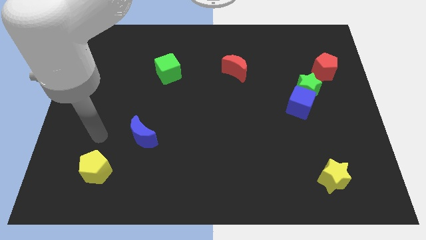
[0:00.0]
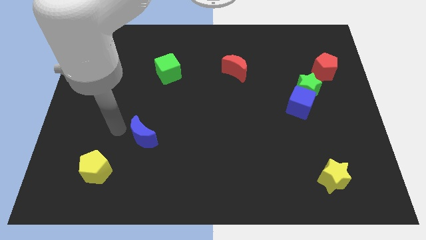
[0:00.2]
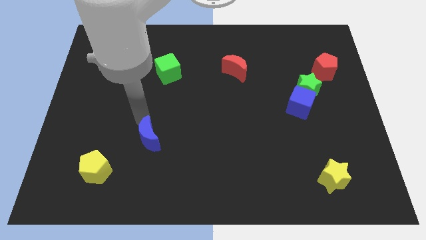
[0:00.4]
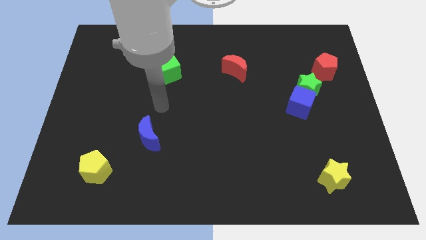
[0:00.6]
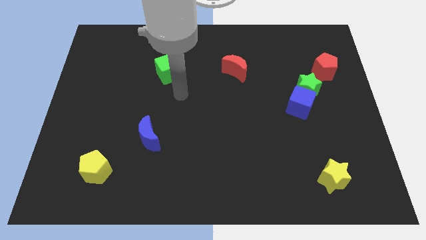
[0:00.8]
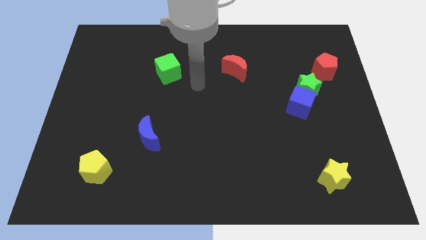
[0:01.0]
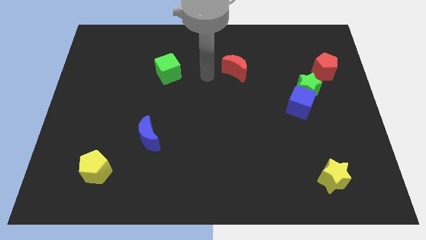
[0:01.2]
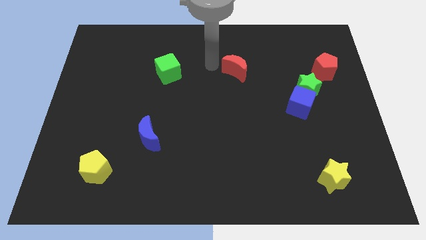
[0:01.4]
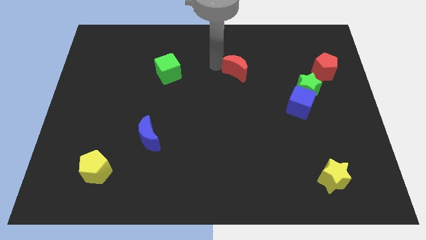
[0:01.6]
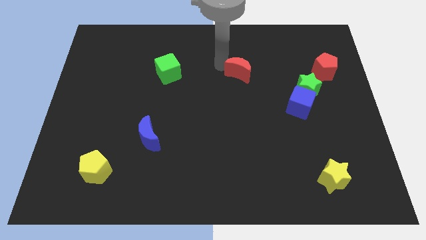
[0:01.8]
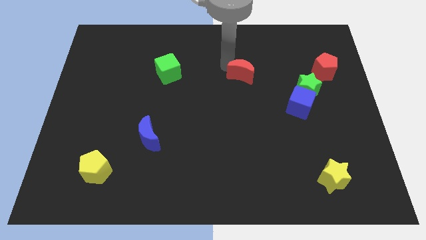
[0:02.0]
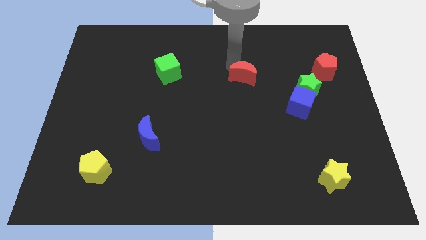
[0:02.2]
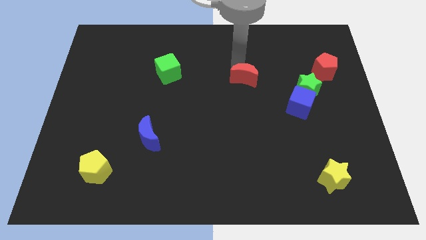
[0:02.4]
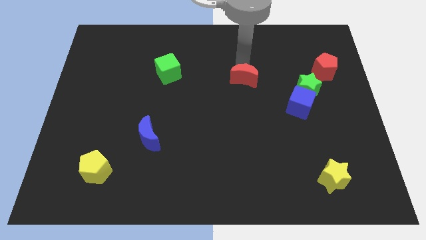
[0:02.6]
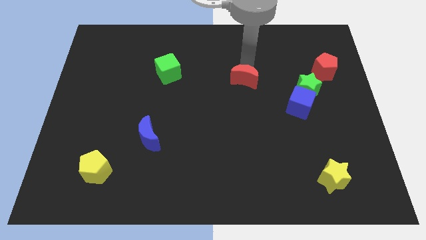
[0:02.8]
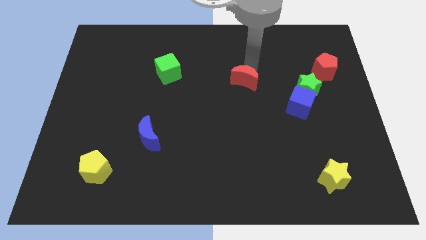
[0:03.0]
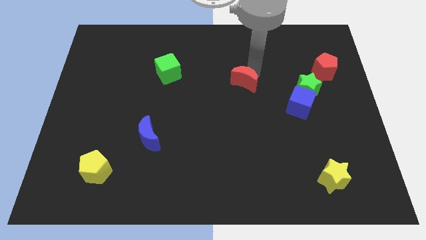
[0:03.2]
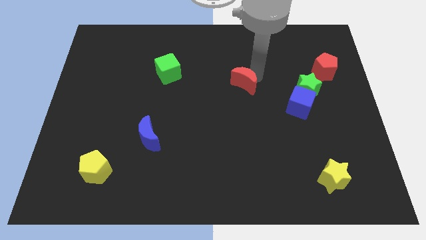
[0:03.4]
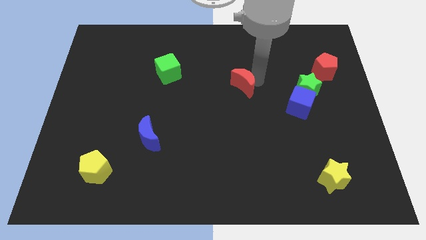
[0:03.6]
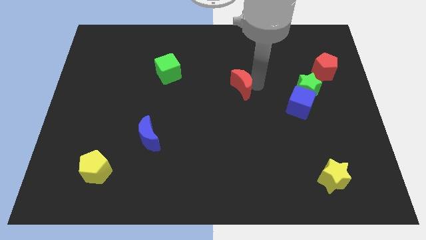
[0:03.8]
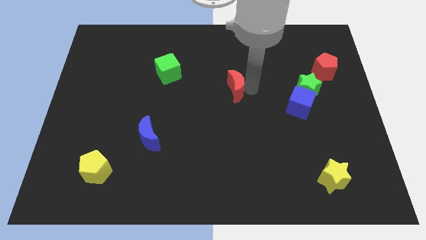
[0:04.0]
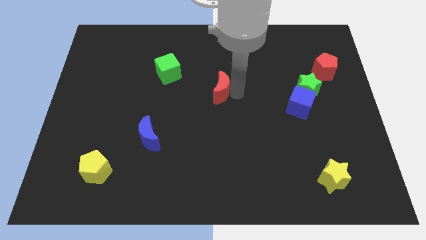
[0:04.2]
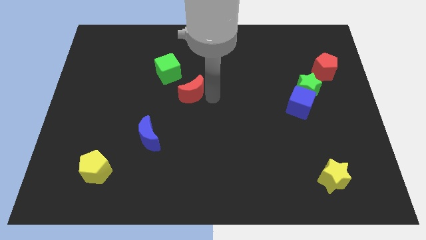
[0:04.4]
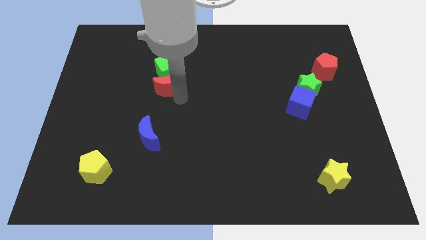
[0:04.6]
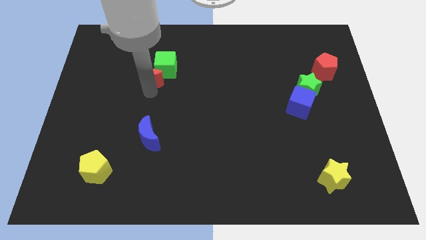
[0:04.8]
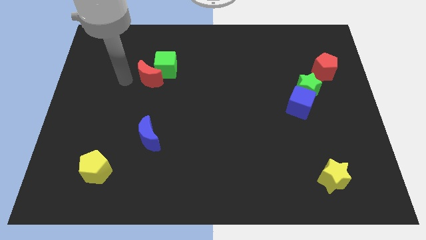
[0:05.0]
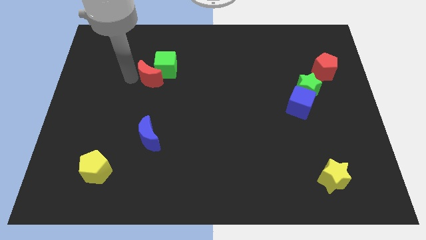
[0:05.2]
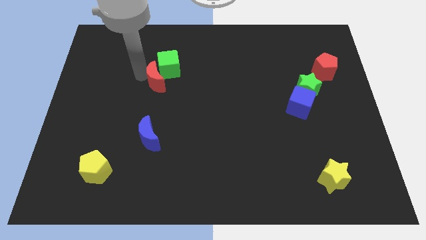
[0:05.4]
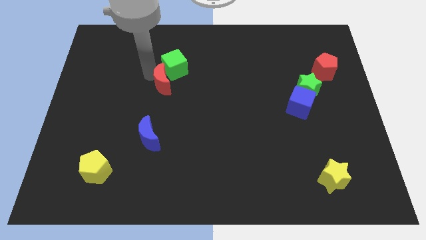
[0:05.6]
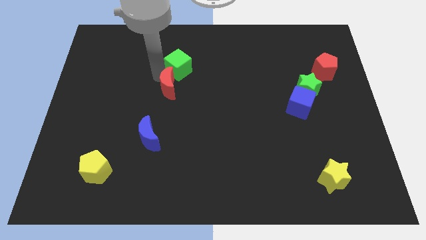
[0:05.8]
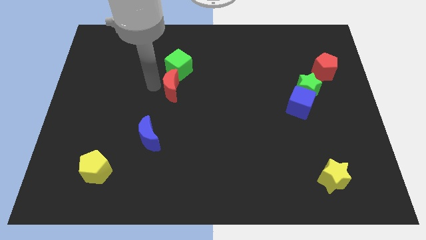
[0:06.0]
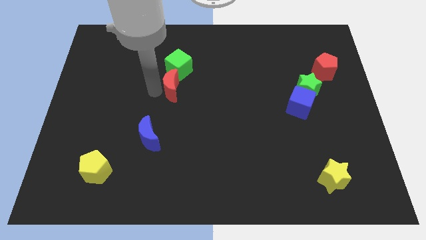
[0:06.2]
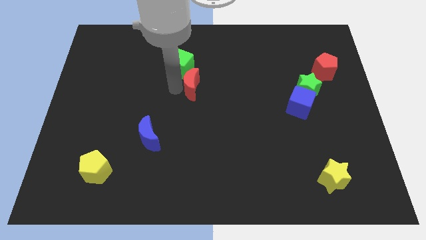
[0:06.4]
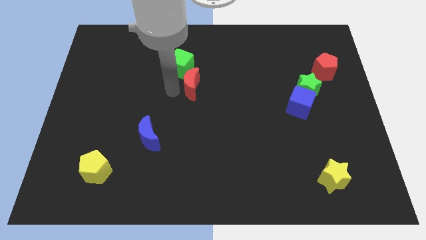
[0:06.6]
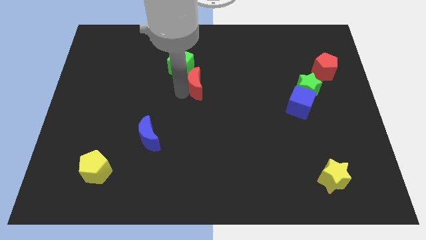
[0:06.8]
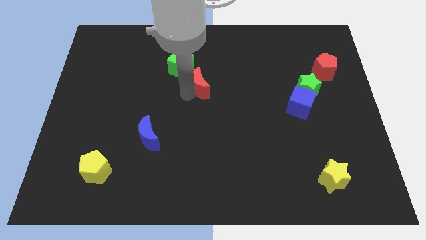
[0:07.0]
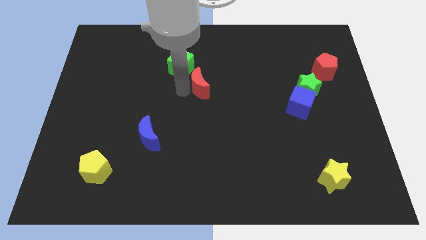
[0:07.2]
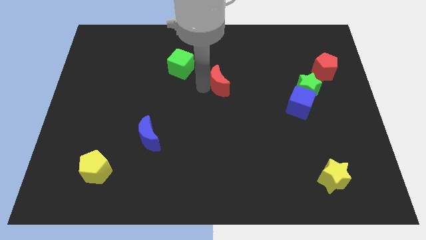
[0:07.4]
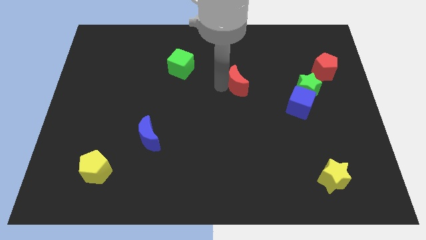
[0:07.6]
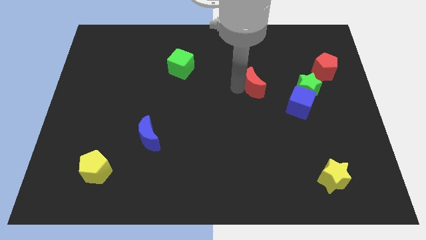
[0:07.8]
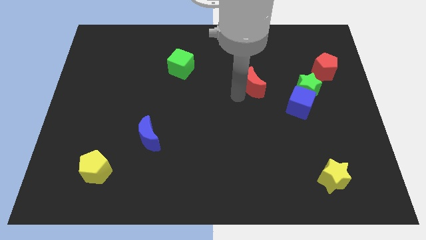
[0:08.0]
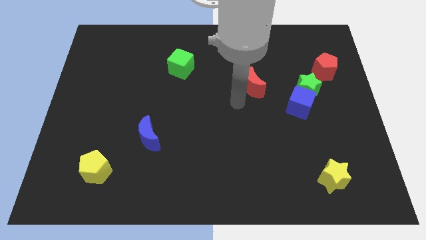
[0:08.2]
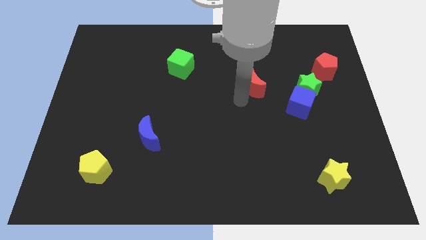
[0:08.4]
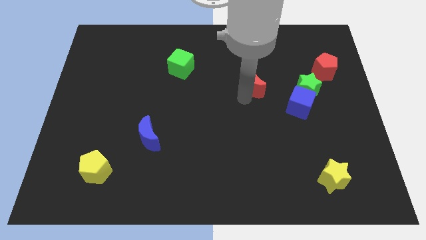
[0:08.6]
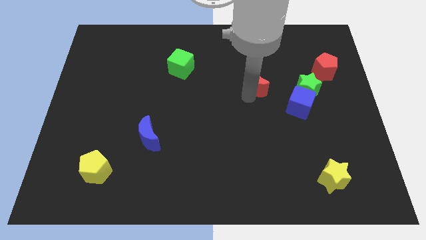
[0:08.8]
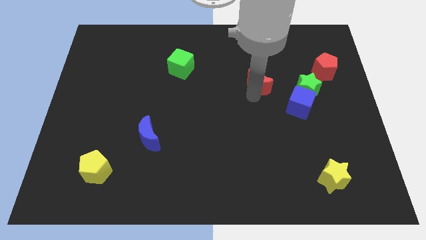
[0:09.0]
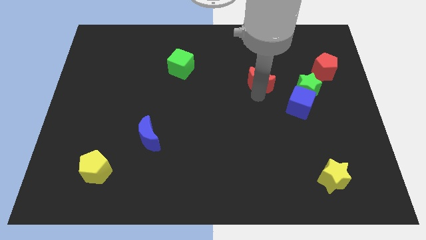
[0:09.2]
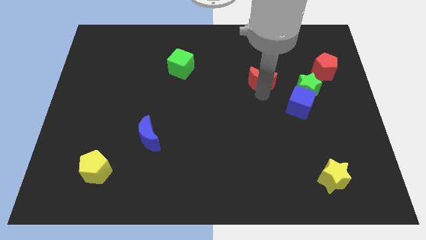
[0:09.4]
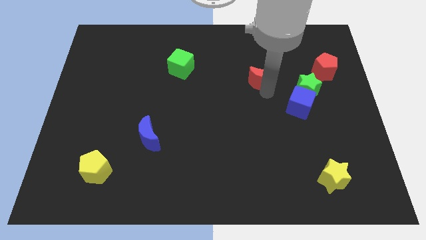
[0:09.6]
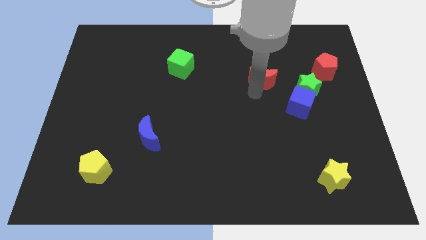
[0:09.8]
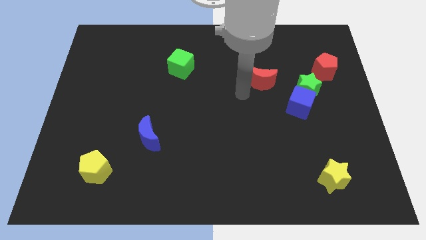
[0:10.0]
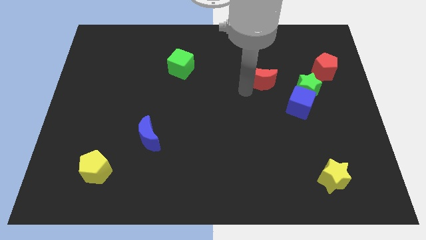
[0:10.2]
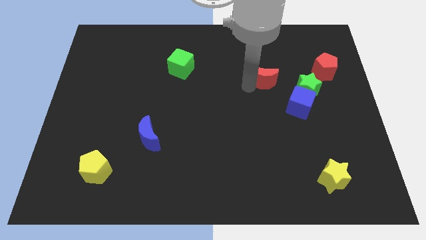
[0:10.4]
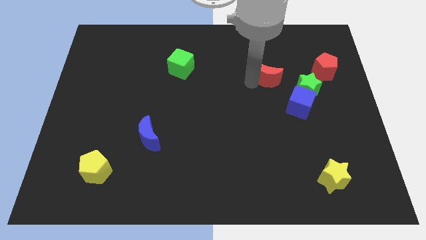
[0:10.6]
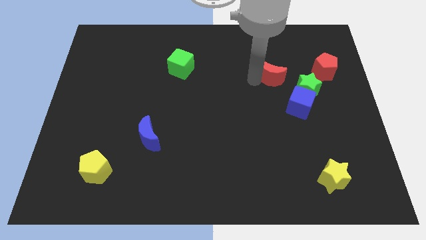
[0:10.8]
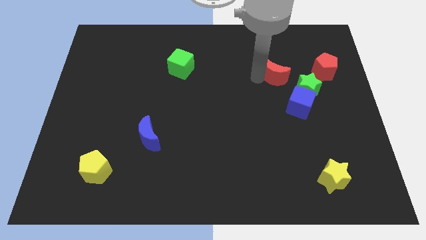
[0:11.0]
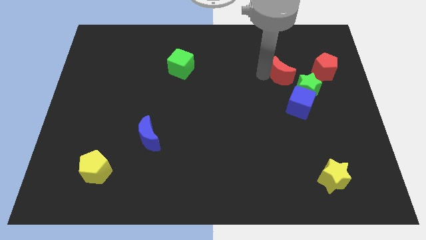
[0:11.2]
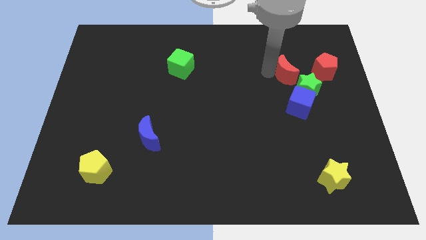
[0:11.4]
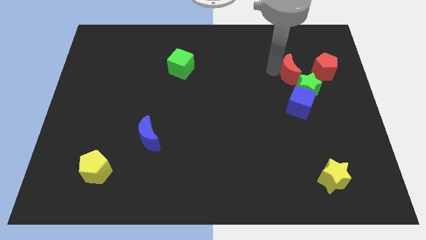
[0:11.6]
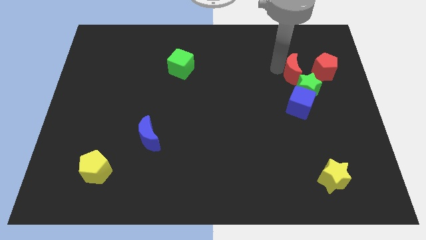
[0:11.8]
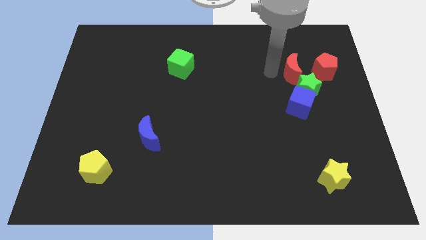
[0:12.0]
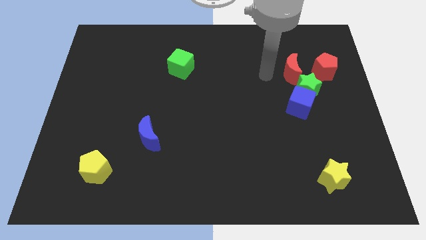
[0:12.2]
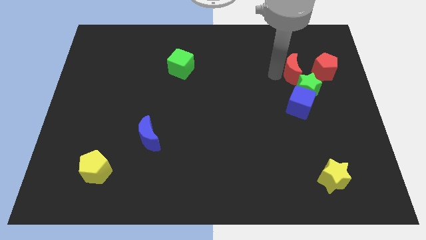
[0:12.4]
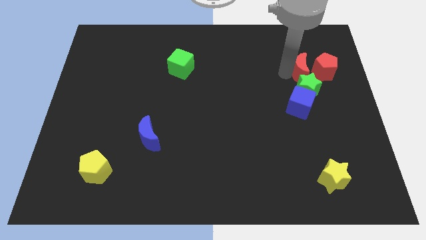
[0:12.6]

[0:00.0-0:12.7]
put the red moon towards the red pentagon
